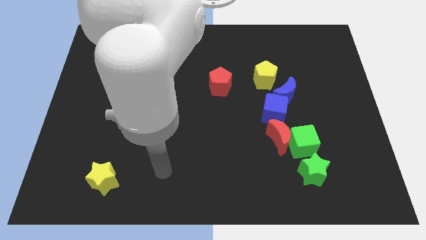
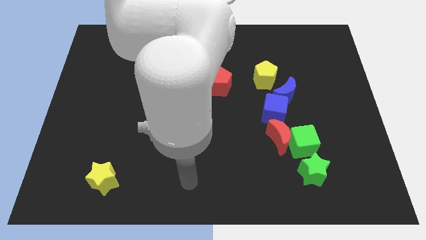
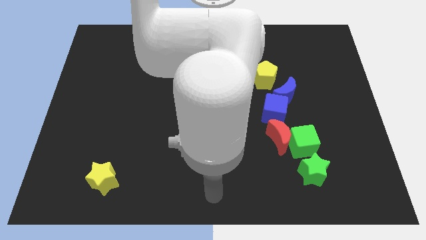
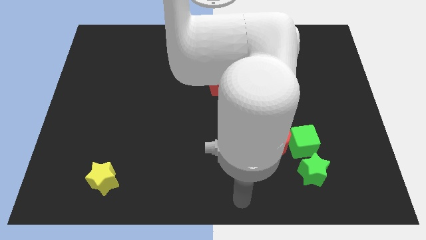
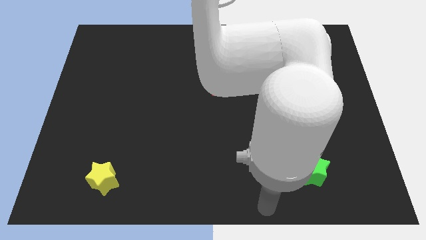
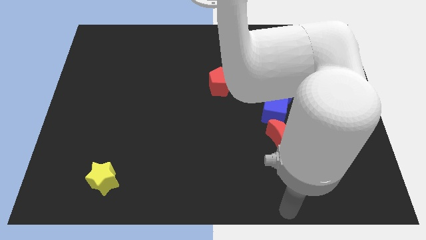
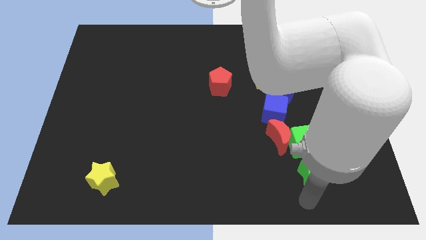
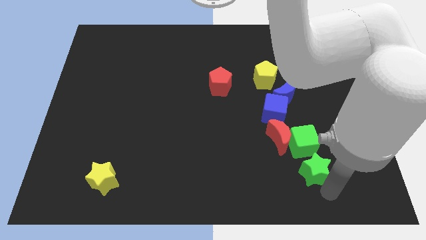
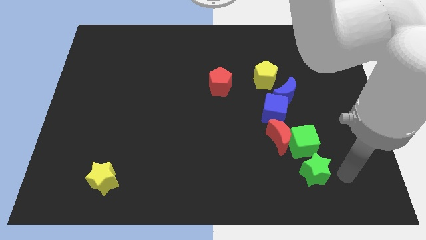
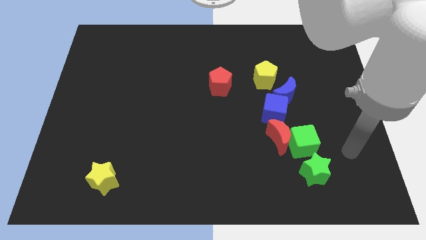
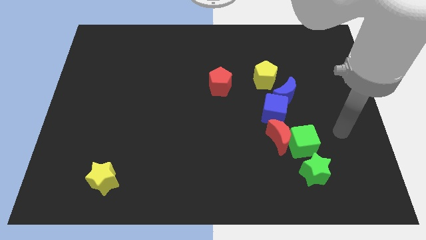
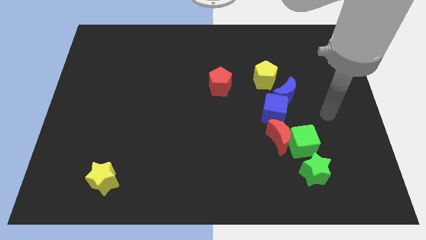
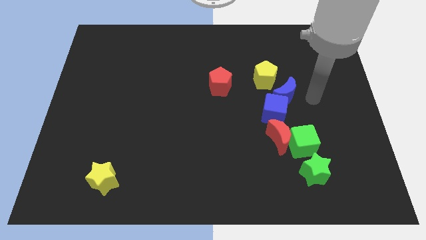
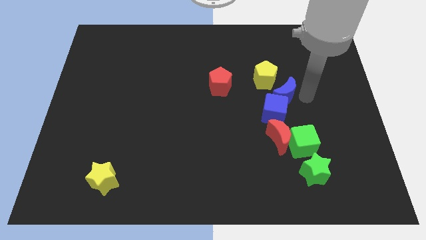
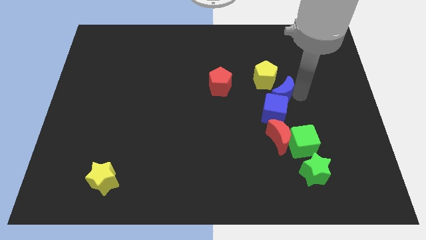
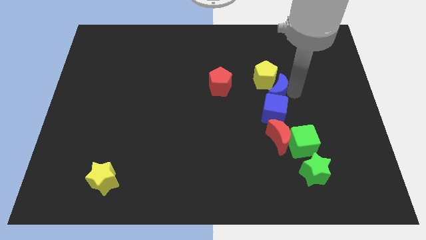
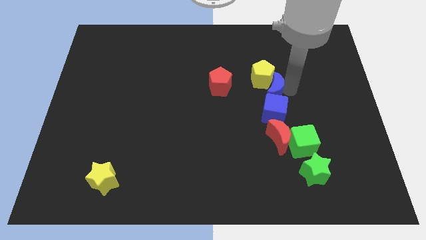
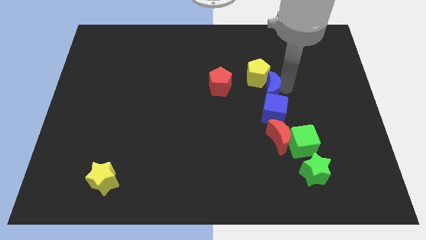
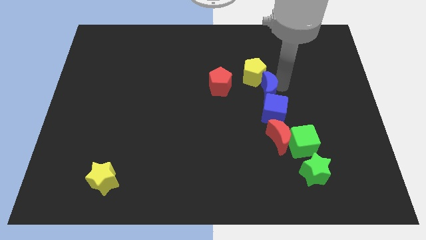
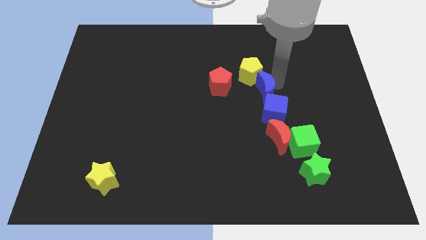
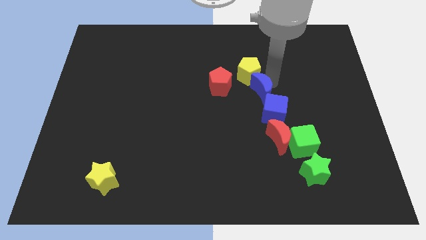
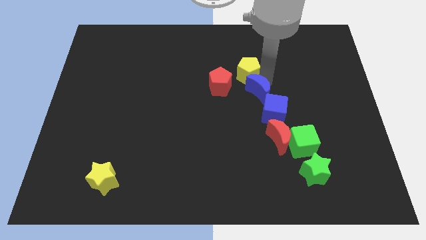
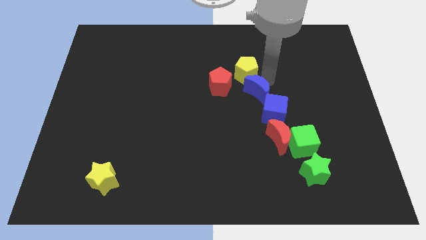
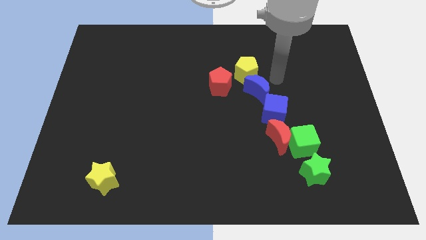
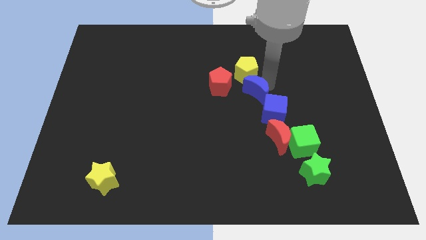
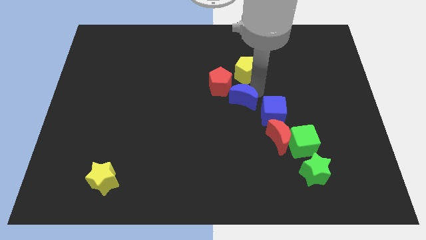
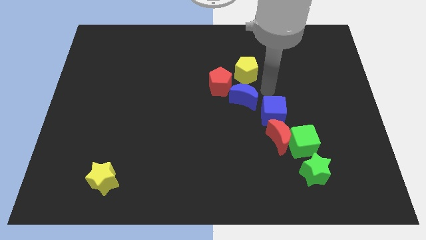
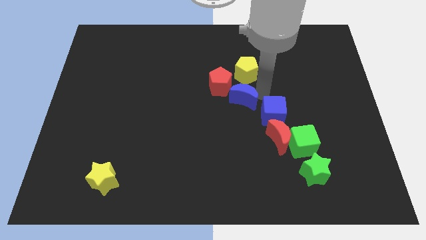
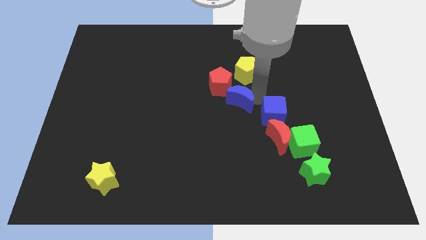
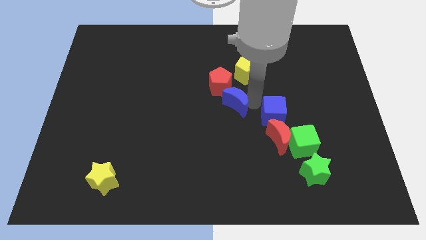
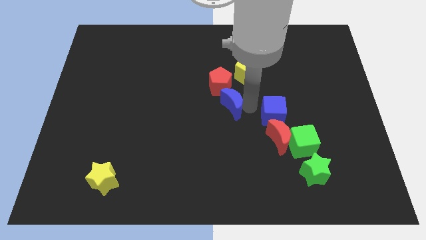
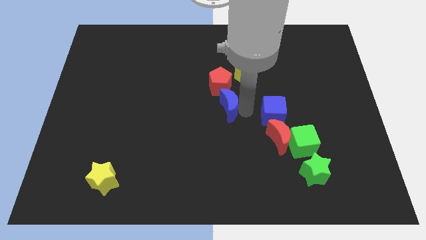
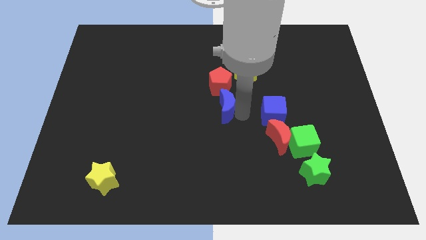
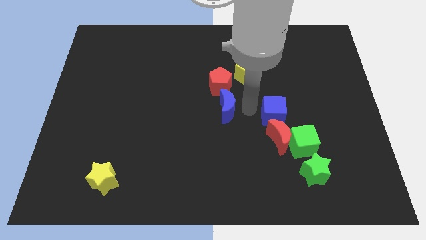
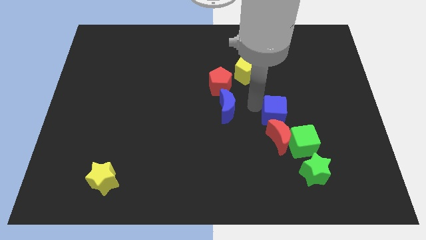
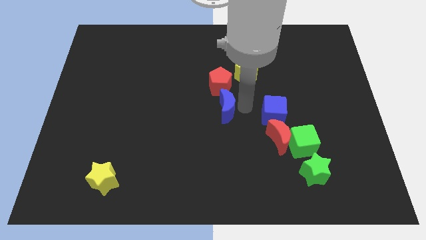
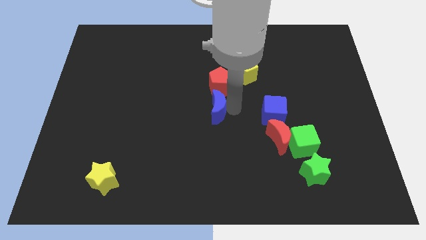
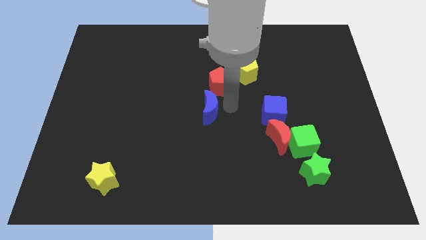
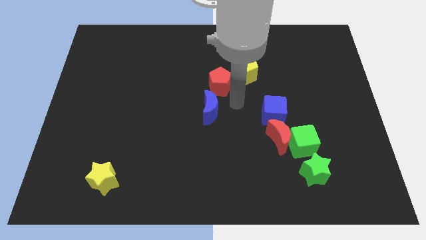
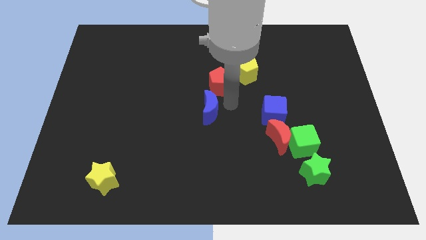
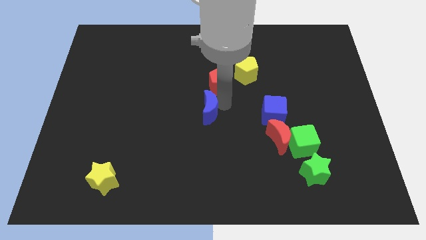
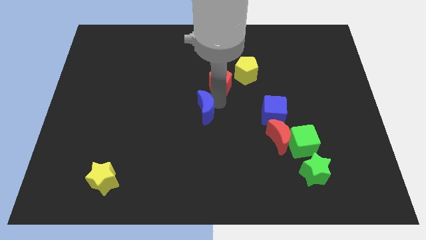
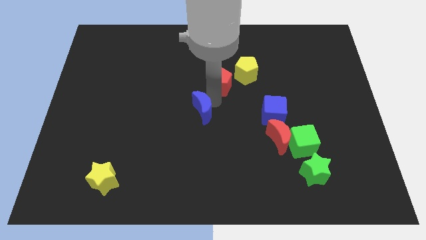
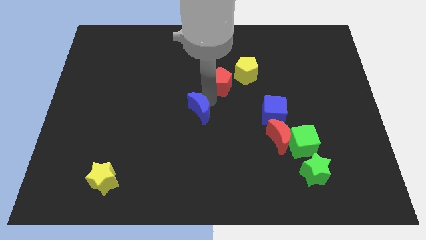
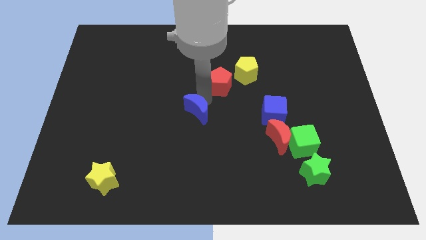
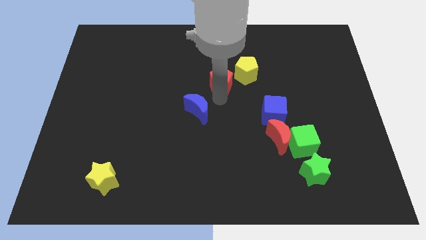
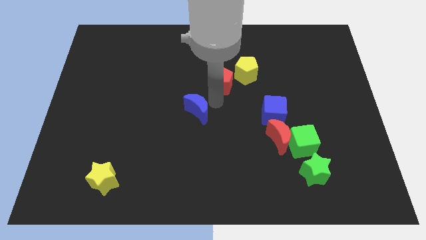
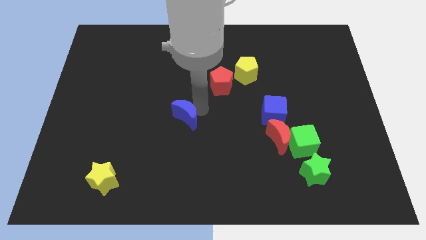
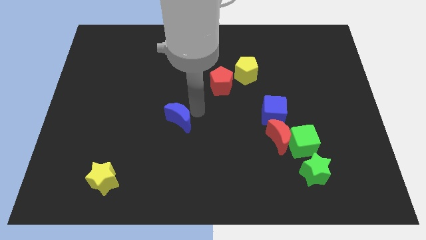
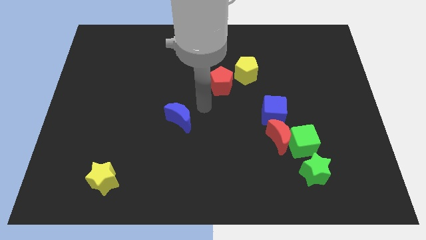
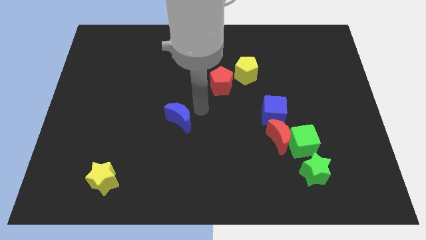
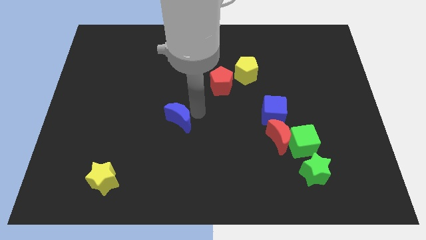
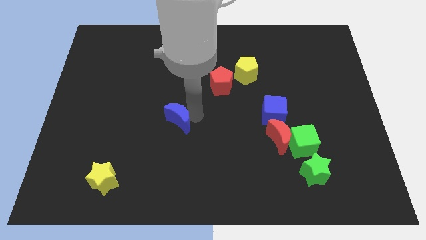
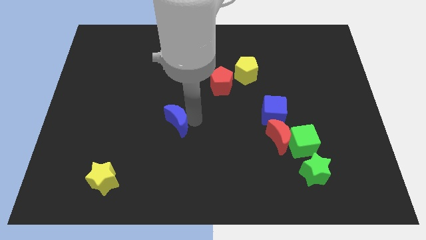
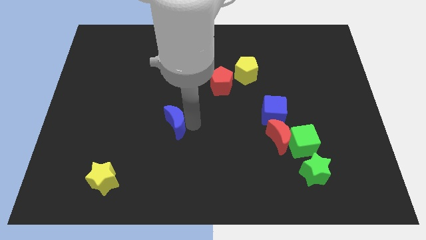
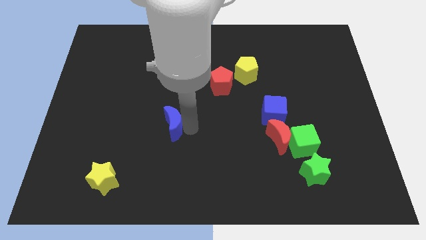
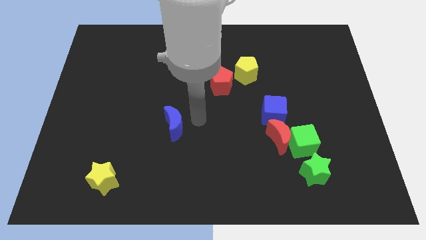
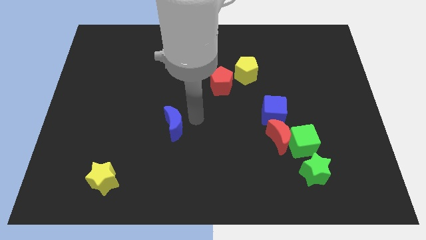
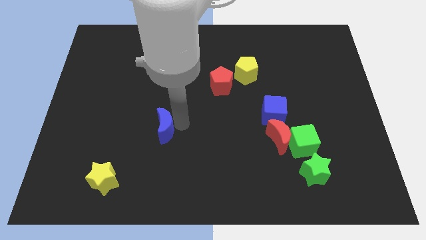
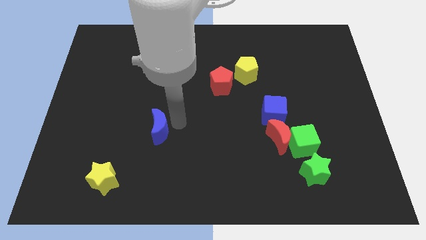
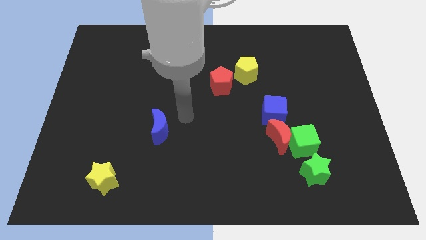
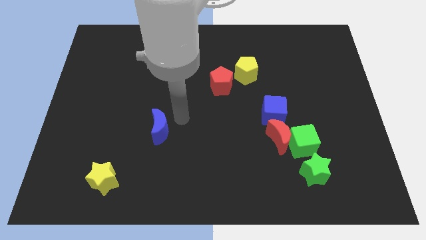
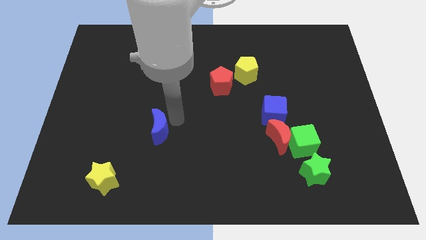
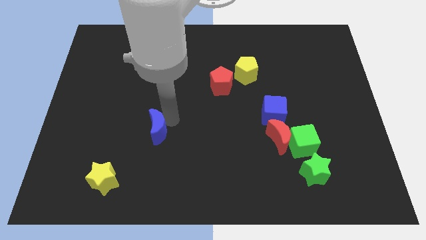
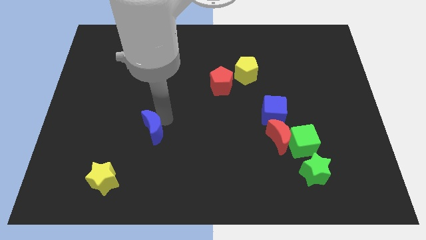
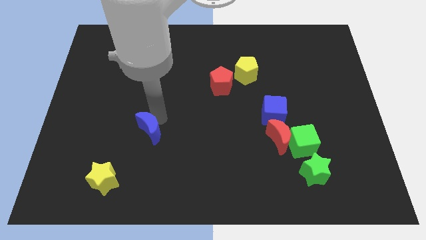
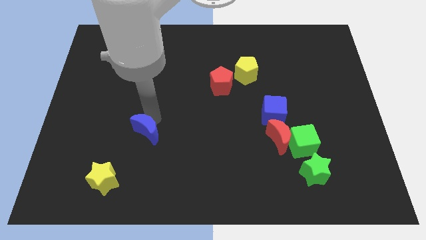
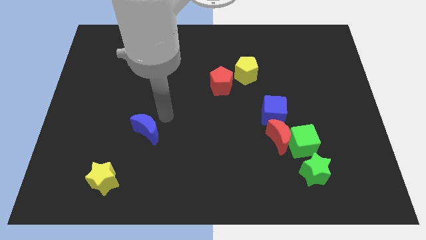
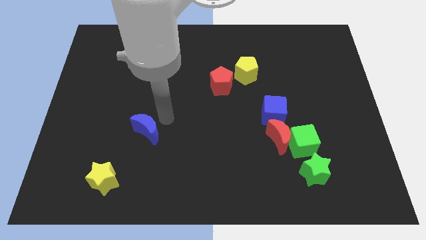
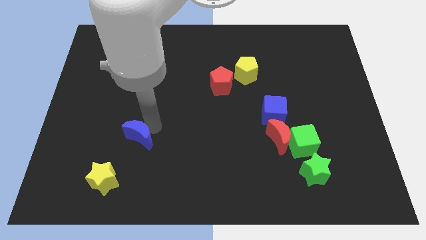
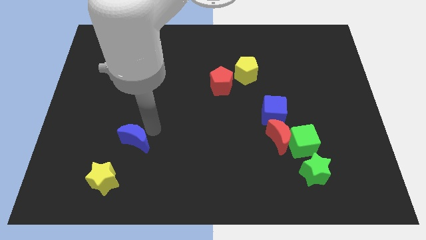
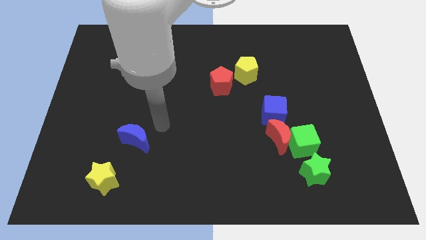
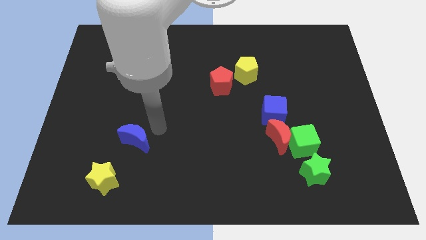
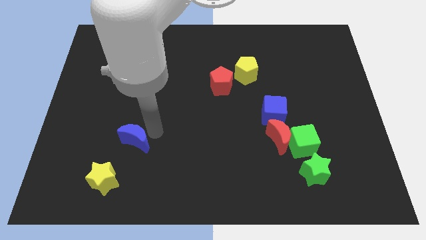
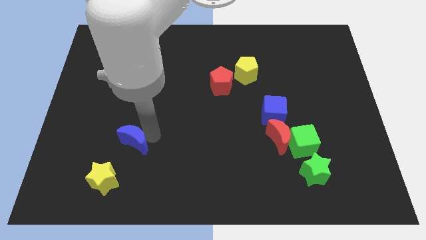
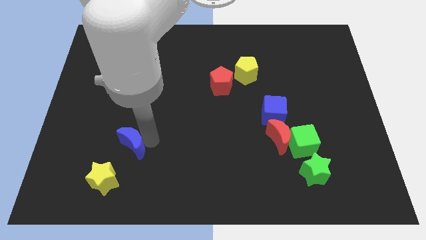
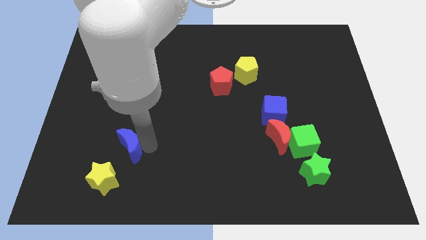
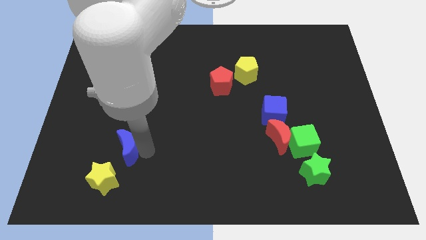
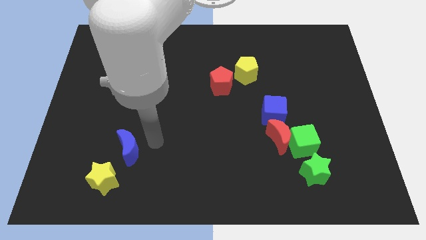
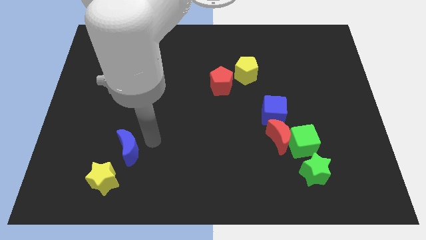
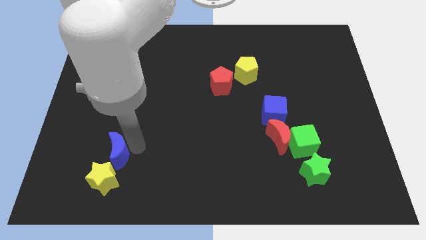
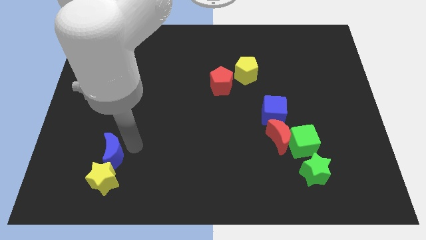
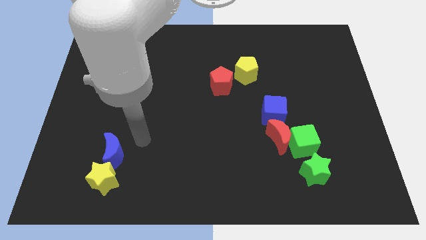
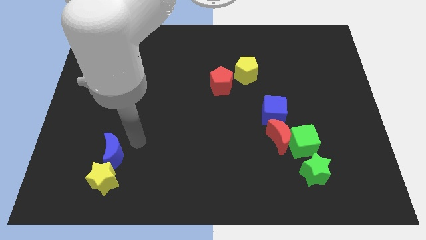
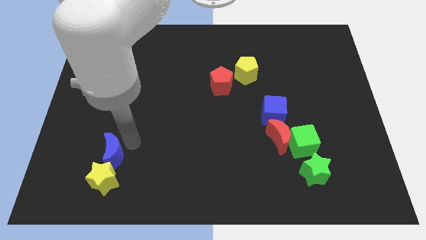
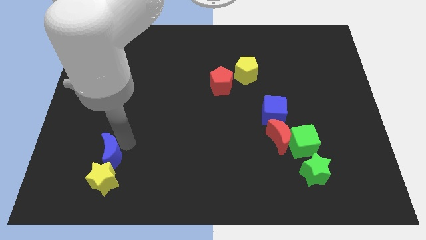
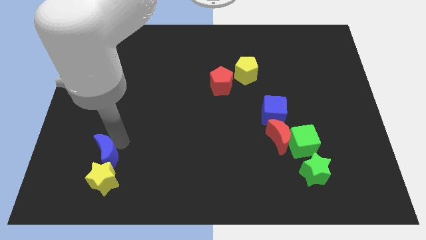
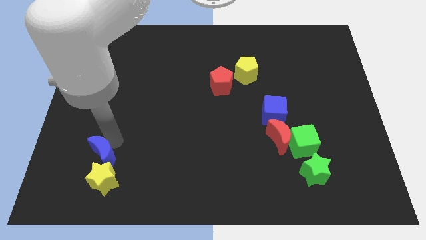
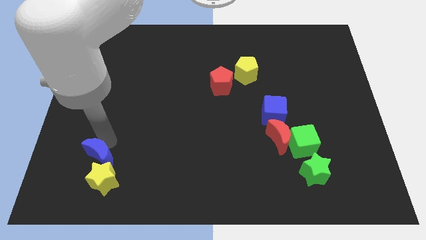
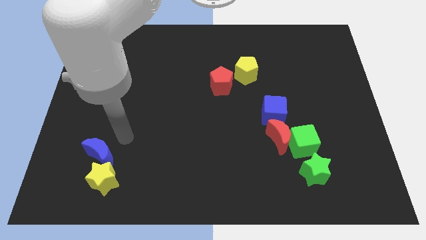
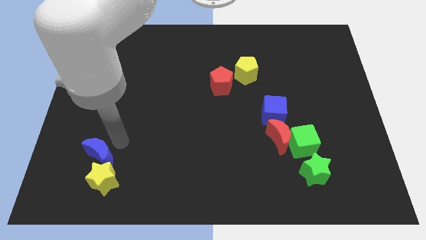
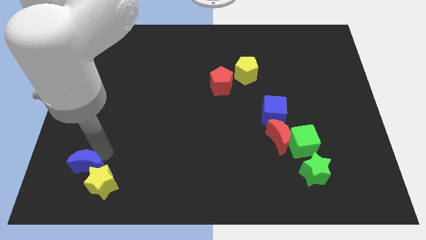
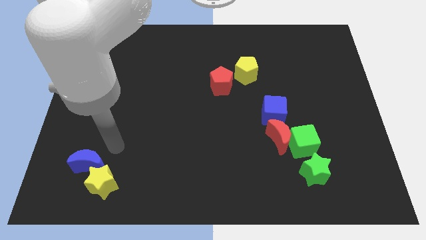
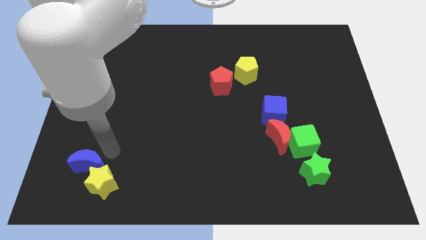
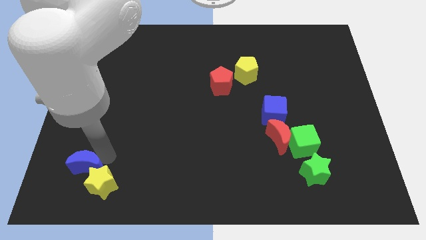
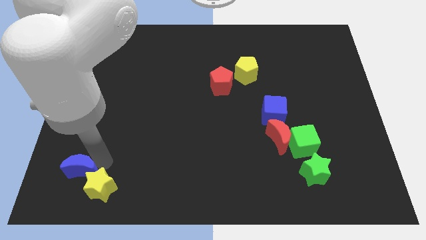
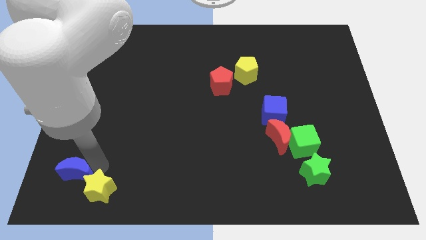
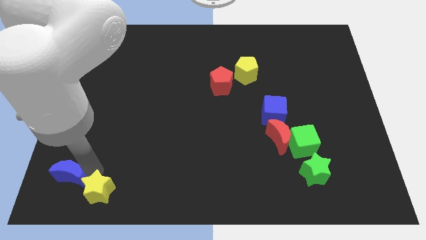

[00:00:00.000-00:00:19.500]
move the blue moon to the bottom left corner
